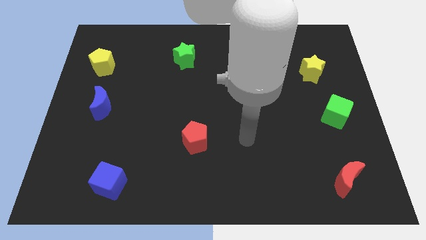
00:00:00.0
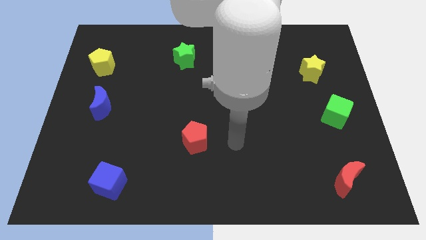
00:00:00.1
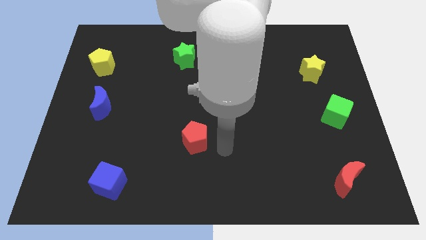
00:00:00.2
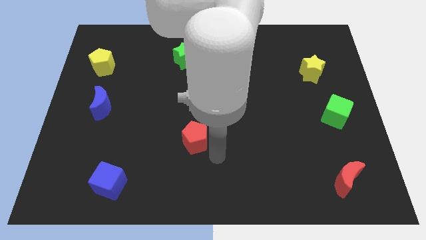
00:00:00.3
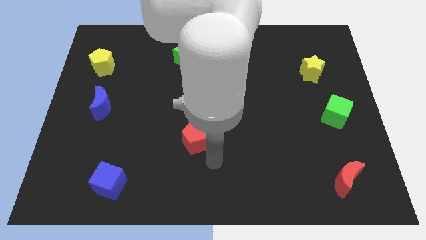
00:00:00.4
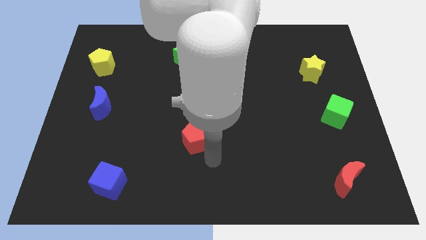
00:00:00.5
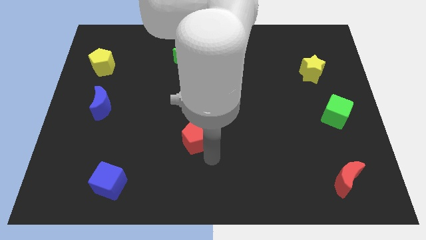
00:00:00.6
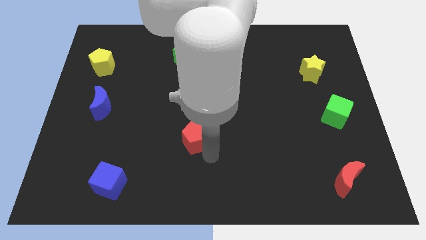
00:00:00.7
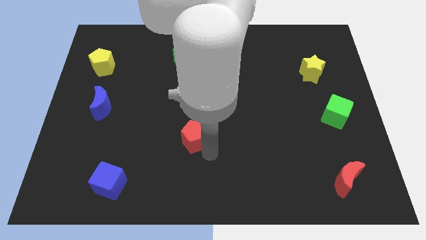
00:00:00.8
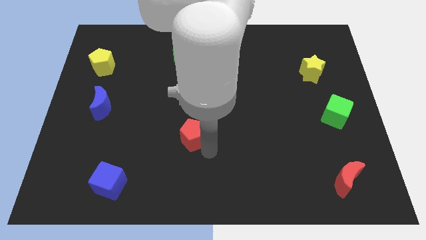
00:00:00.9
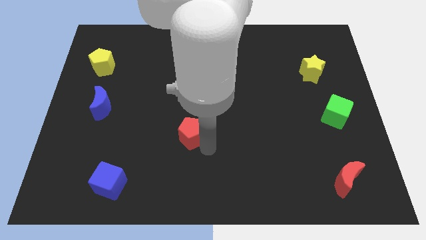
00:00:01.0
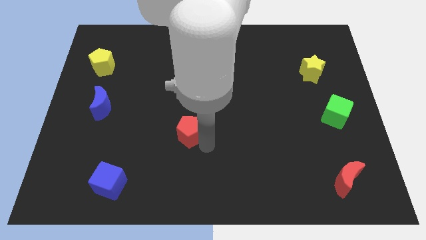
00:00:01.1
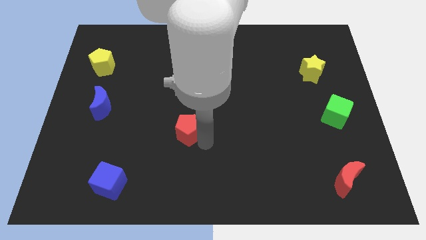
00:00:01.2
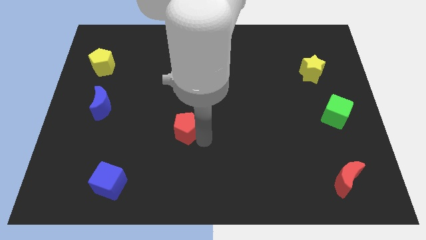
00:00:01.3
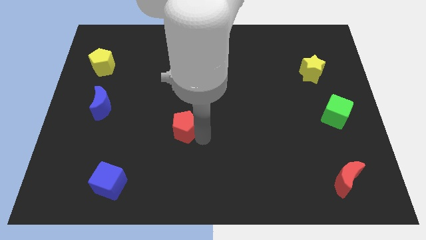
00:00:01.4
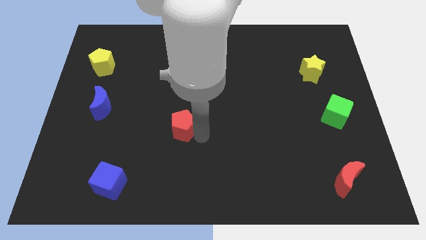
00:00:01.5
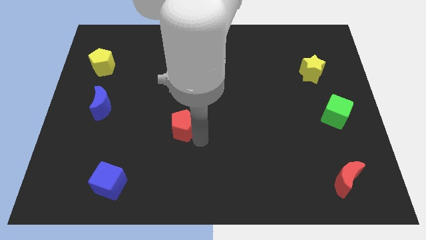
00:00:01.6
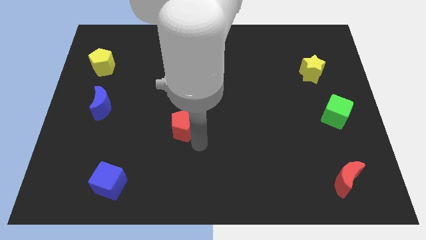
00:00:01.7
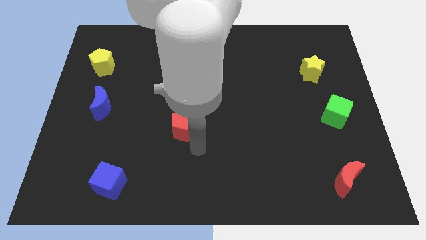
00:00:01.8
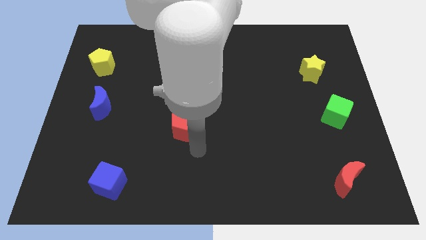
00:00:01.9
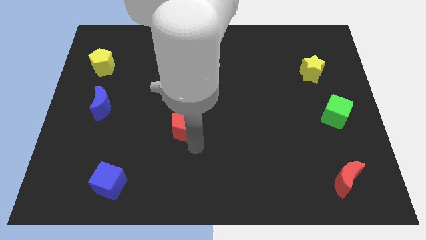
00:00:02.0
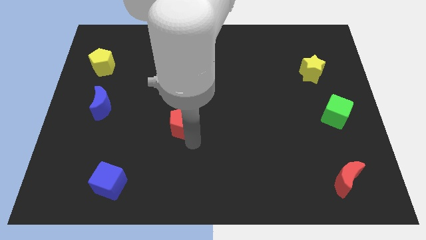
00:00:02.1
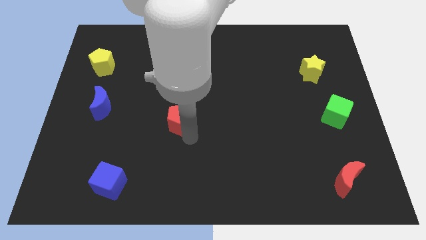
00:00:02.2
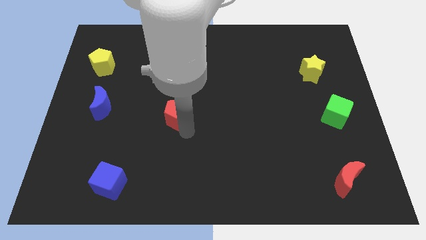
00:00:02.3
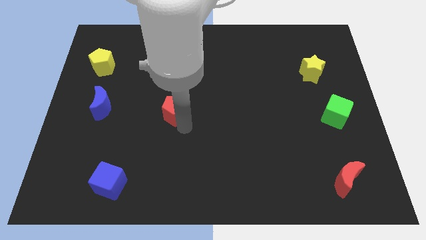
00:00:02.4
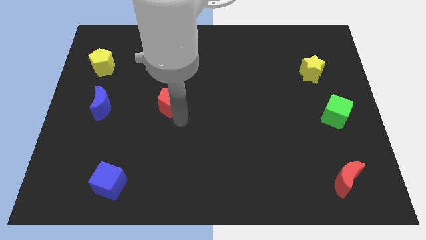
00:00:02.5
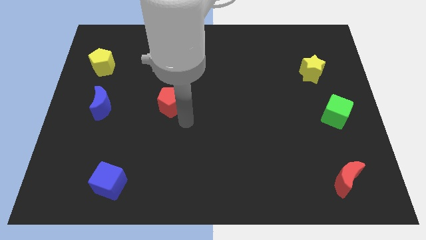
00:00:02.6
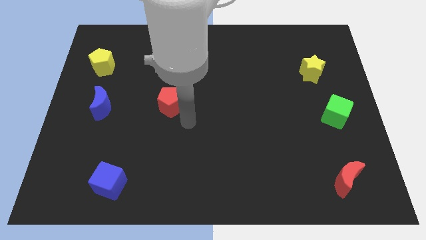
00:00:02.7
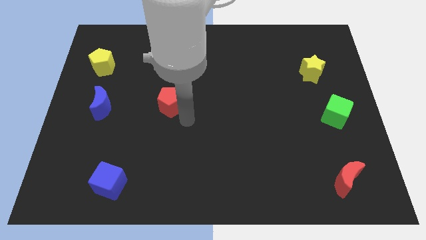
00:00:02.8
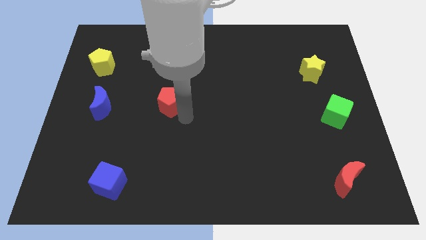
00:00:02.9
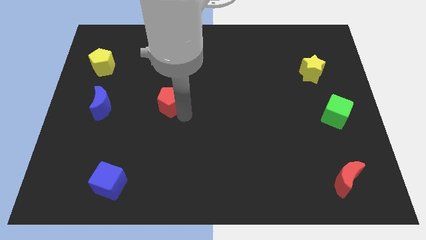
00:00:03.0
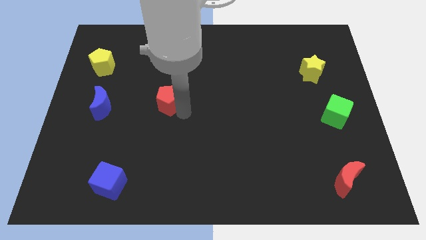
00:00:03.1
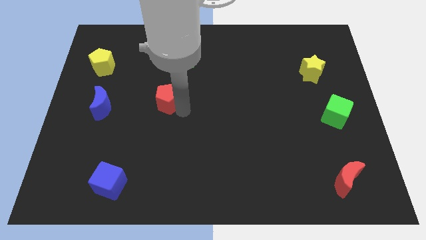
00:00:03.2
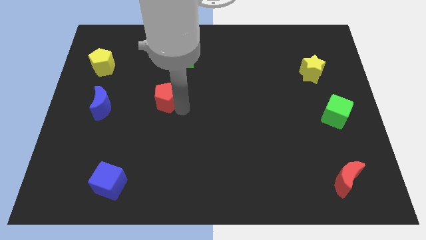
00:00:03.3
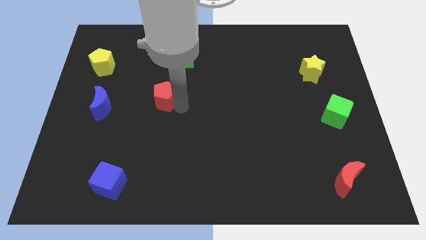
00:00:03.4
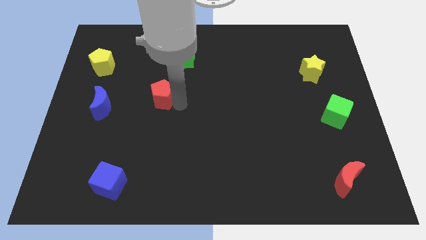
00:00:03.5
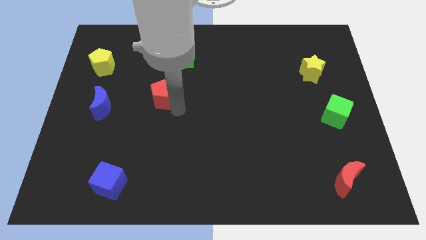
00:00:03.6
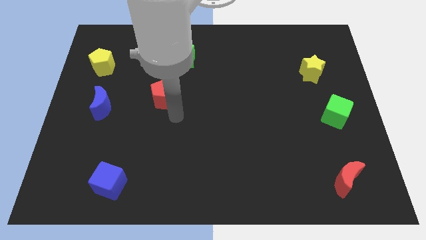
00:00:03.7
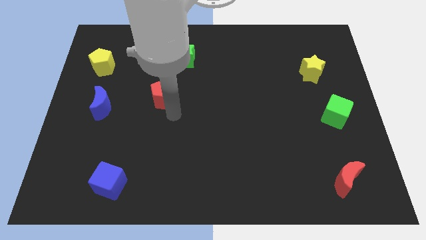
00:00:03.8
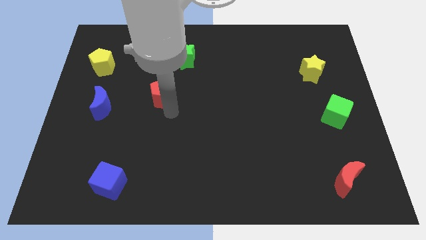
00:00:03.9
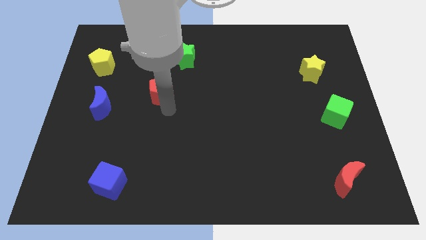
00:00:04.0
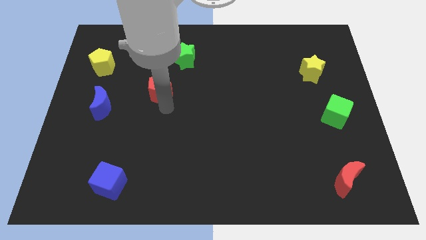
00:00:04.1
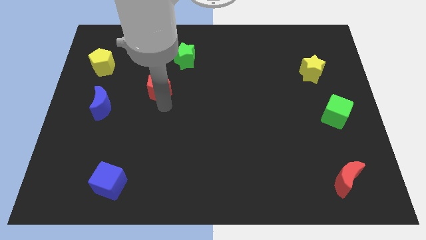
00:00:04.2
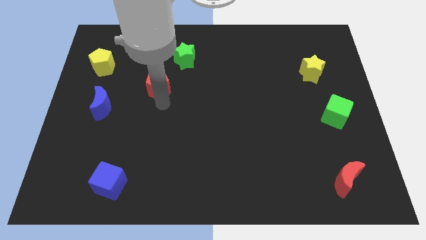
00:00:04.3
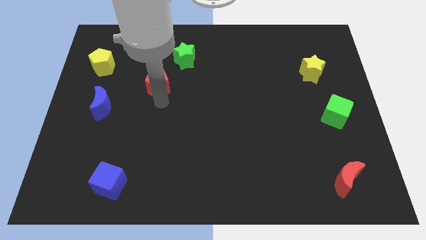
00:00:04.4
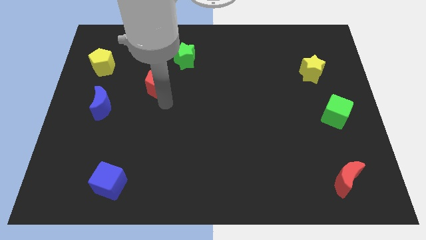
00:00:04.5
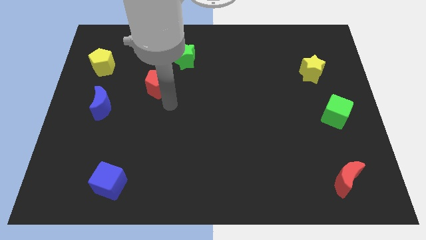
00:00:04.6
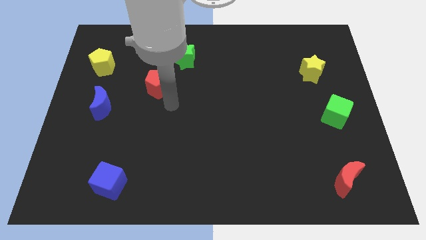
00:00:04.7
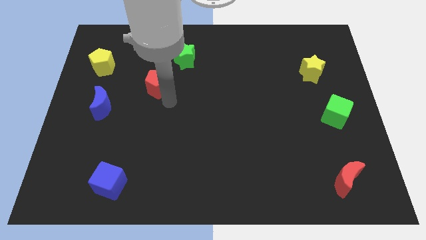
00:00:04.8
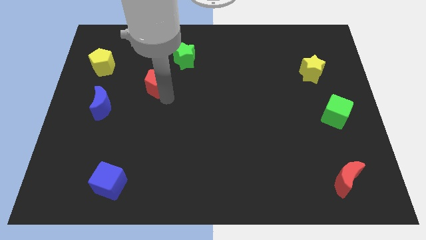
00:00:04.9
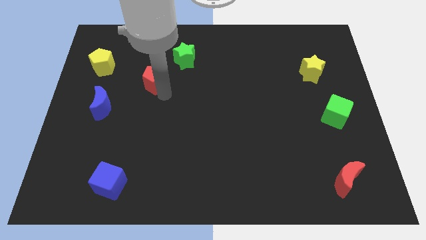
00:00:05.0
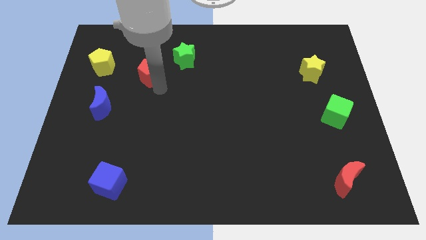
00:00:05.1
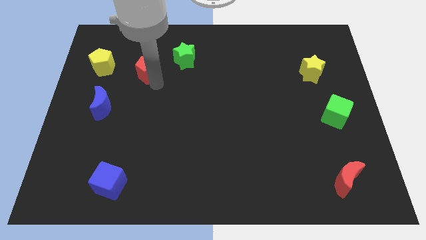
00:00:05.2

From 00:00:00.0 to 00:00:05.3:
slide the red pentagon just left of the green star

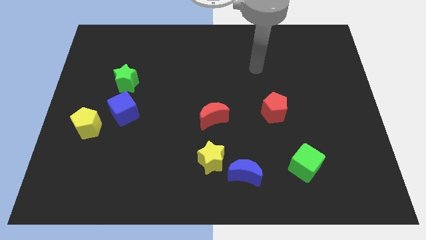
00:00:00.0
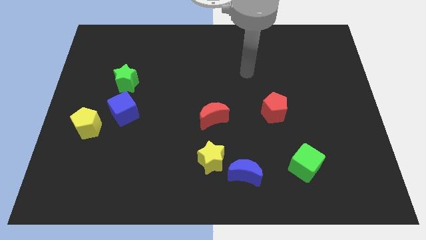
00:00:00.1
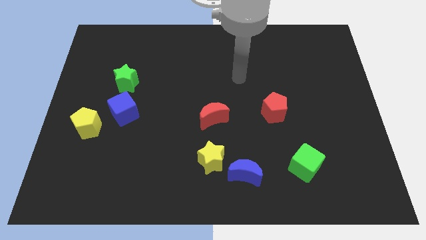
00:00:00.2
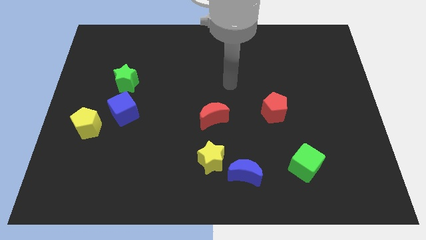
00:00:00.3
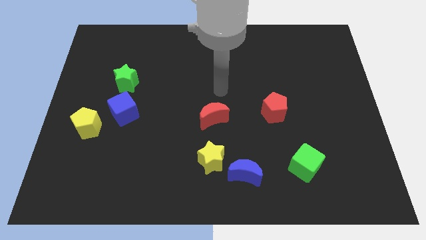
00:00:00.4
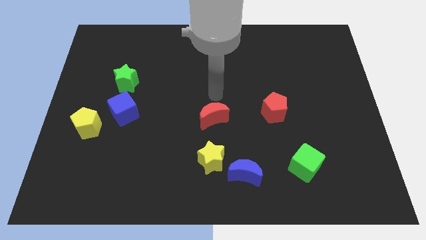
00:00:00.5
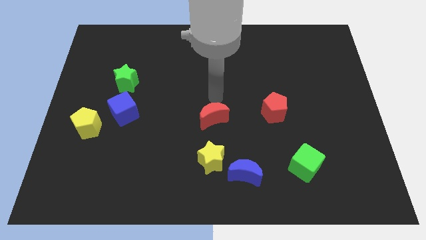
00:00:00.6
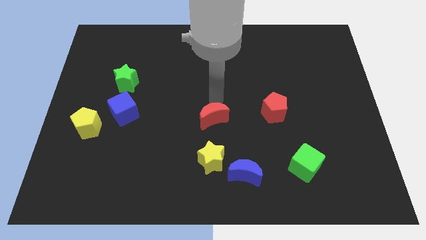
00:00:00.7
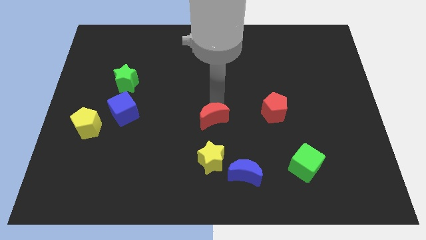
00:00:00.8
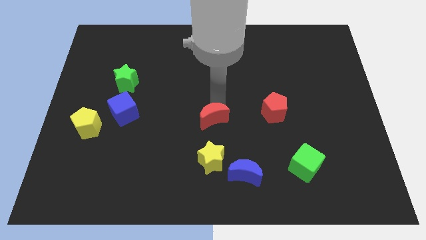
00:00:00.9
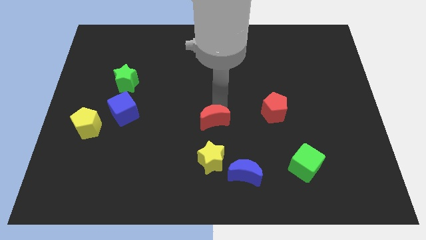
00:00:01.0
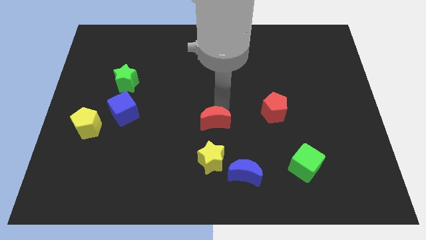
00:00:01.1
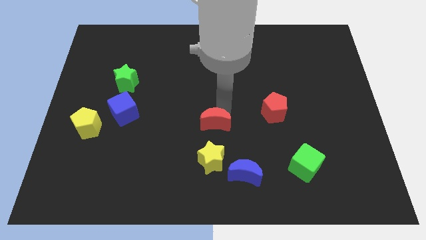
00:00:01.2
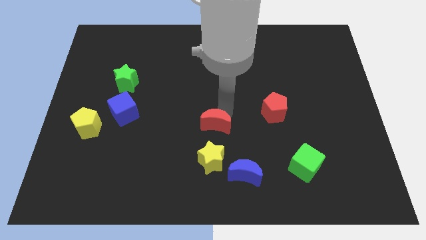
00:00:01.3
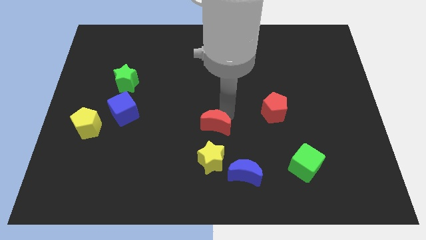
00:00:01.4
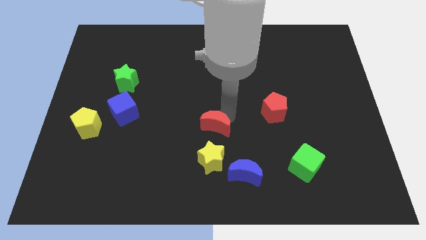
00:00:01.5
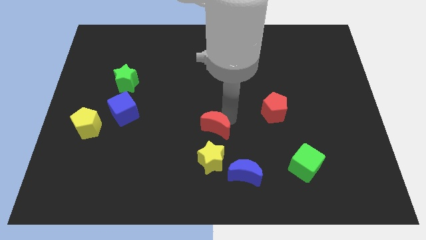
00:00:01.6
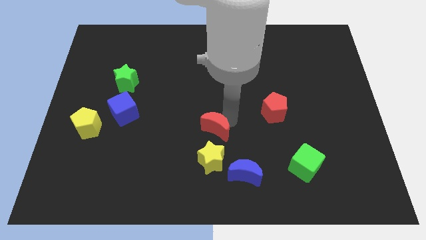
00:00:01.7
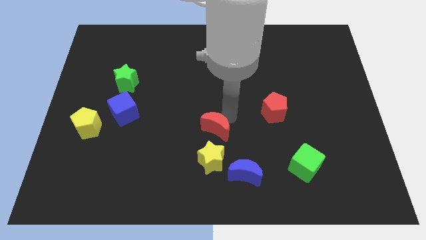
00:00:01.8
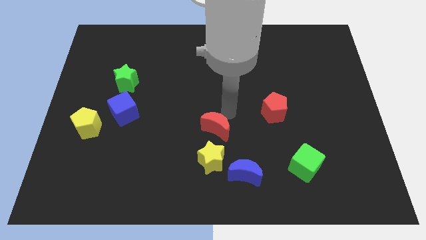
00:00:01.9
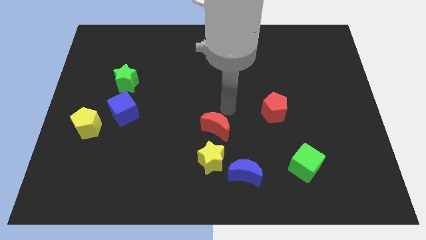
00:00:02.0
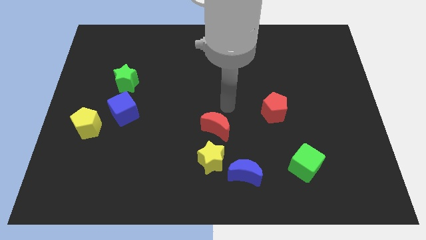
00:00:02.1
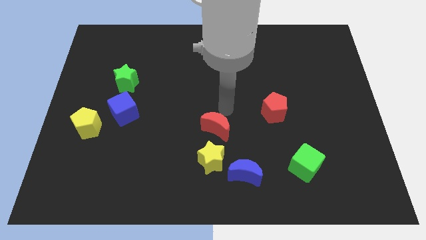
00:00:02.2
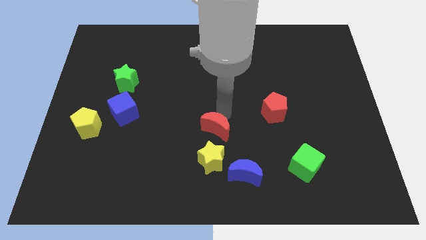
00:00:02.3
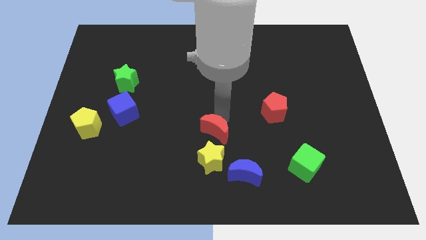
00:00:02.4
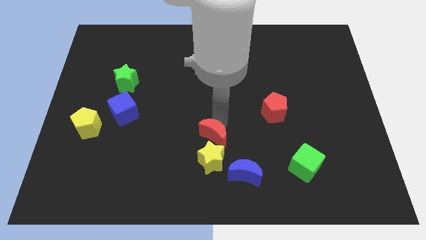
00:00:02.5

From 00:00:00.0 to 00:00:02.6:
move the red moon to the top left of the blue moon
